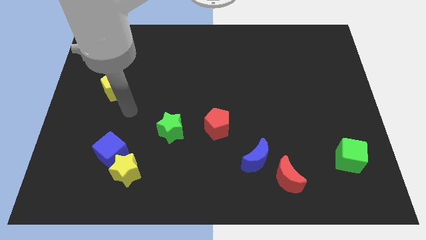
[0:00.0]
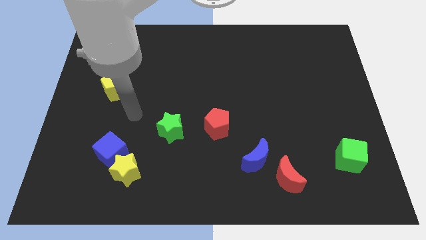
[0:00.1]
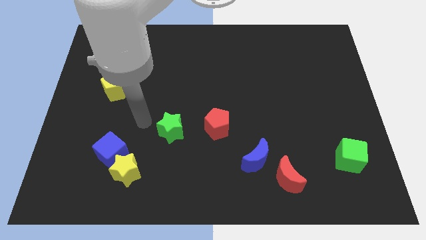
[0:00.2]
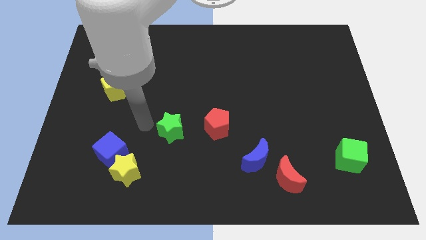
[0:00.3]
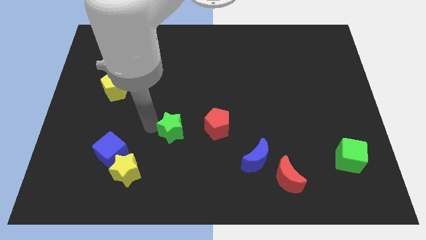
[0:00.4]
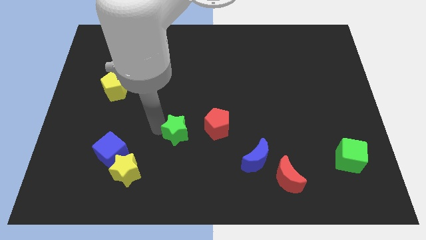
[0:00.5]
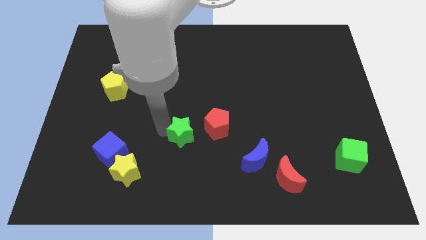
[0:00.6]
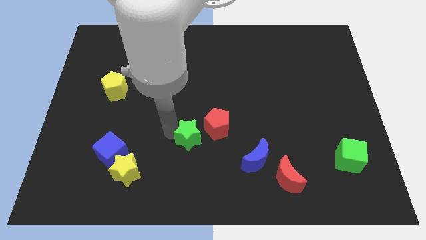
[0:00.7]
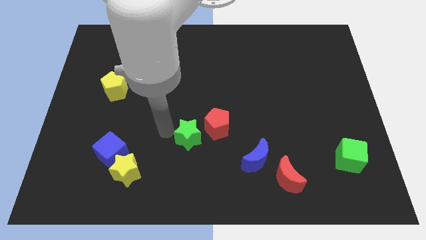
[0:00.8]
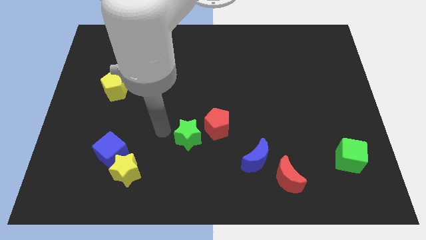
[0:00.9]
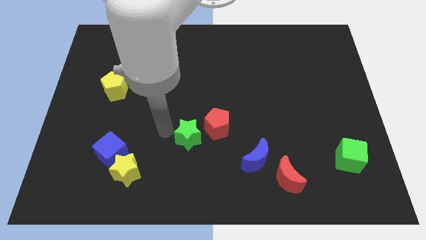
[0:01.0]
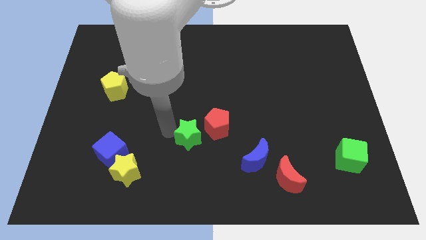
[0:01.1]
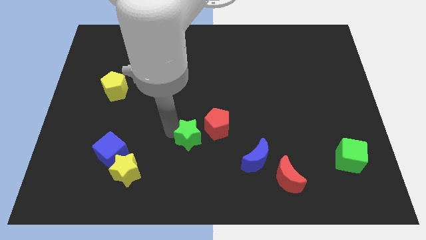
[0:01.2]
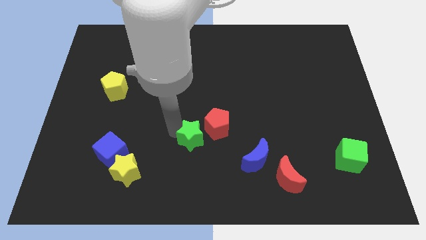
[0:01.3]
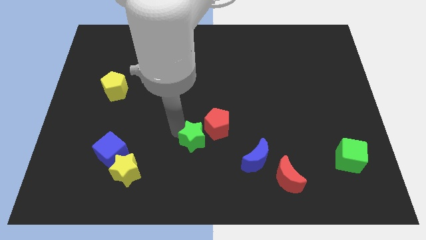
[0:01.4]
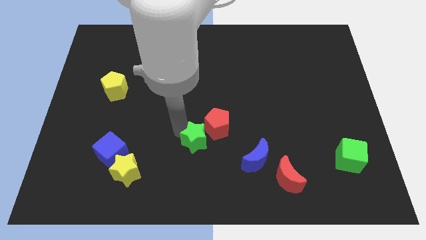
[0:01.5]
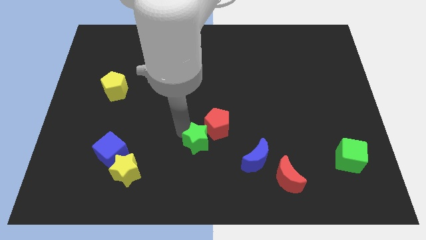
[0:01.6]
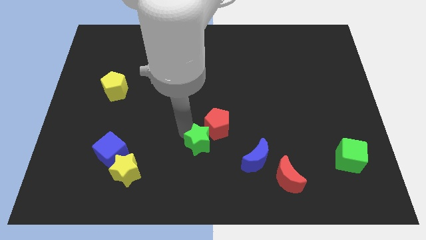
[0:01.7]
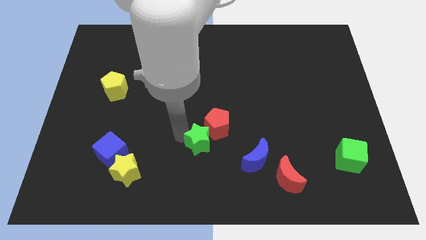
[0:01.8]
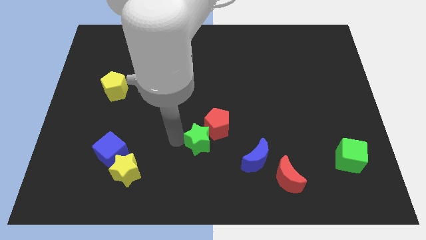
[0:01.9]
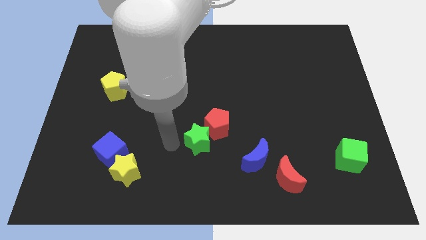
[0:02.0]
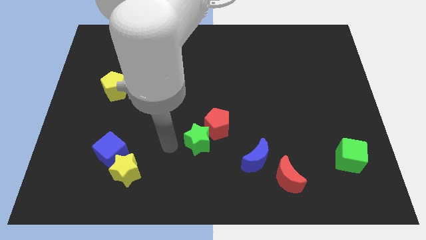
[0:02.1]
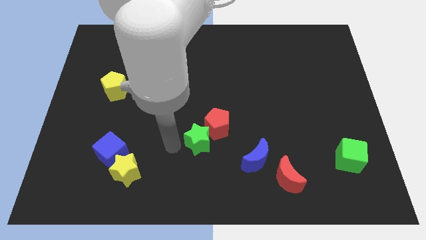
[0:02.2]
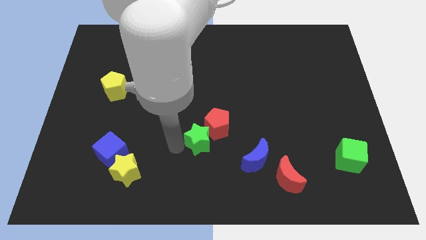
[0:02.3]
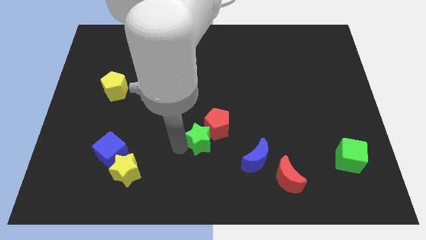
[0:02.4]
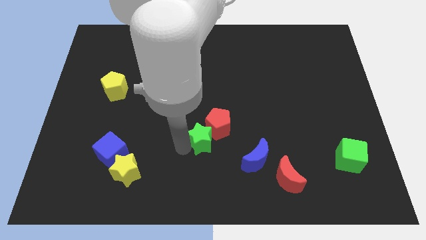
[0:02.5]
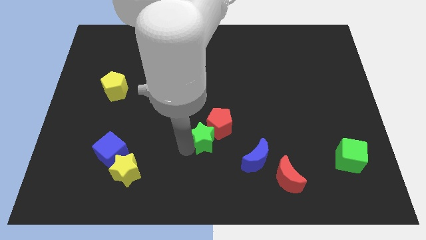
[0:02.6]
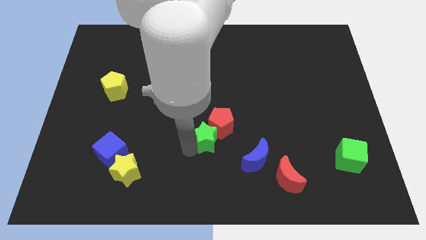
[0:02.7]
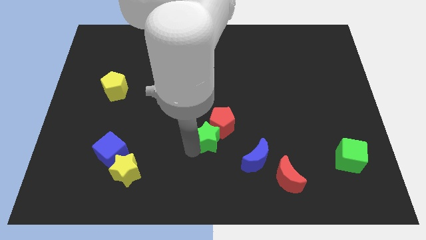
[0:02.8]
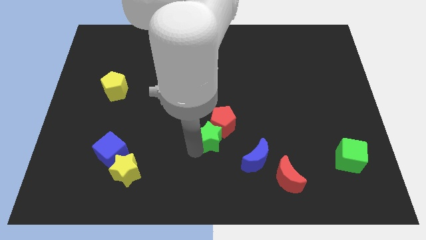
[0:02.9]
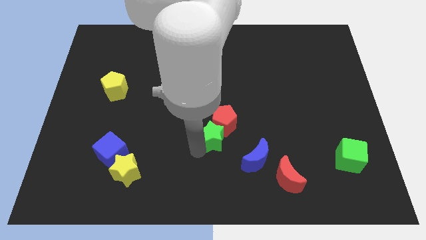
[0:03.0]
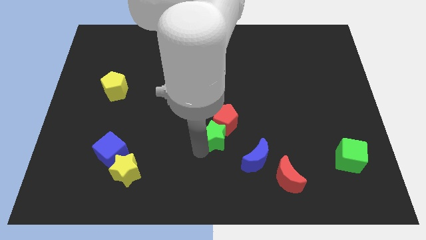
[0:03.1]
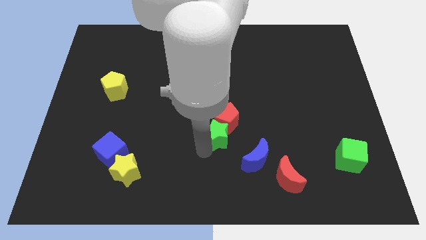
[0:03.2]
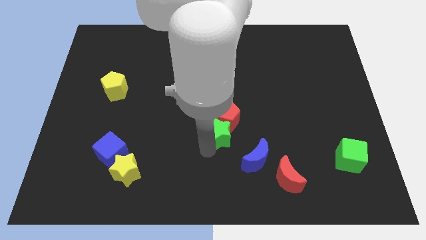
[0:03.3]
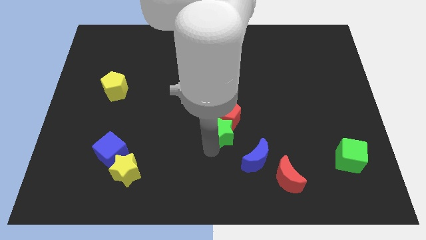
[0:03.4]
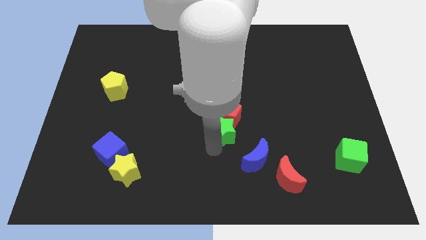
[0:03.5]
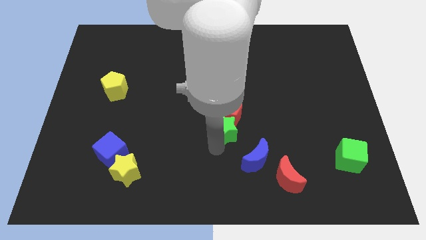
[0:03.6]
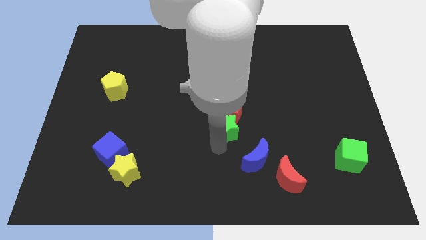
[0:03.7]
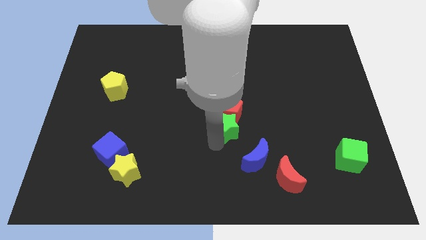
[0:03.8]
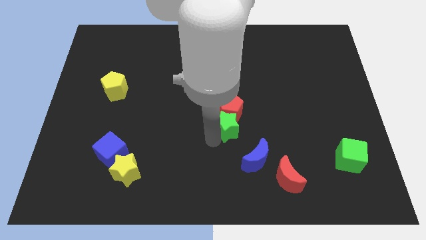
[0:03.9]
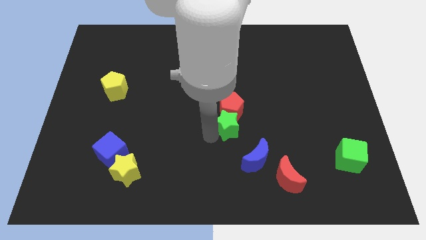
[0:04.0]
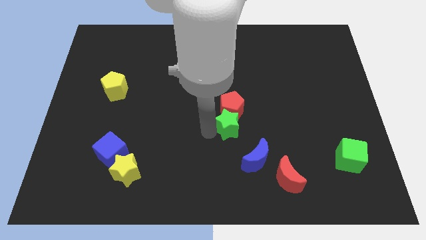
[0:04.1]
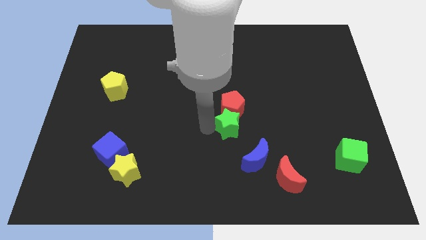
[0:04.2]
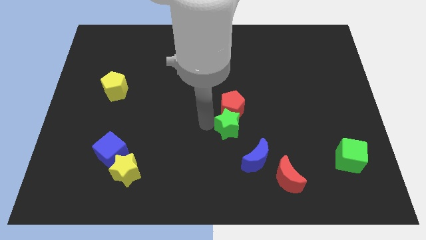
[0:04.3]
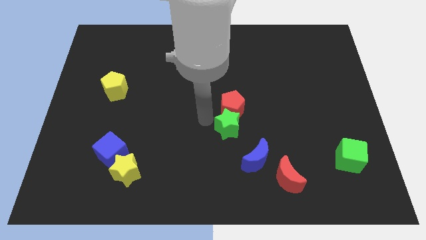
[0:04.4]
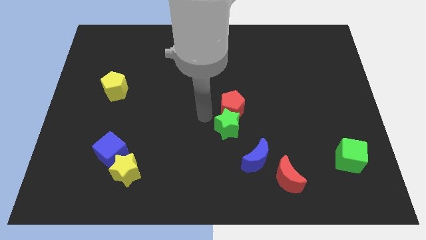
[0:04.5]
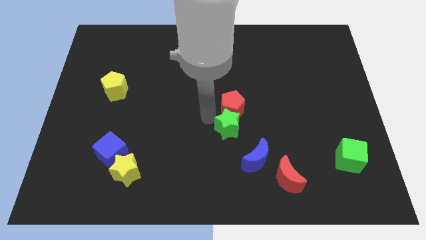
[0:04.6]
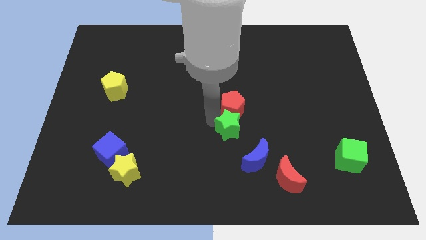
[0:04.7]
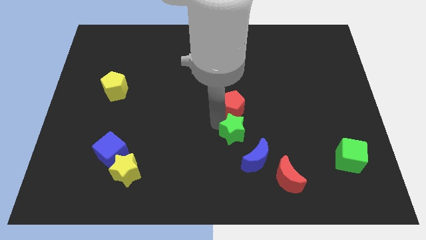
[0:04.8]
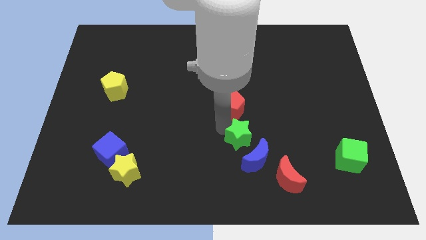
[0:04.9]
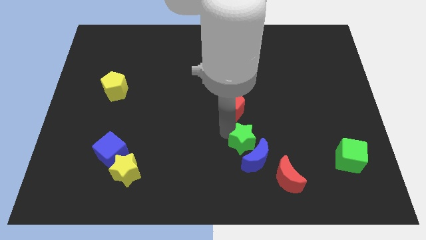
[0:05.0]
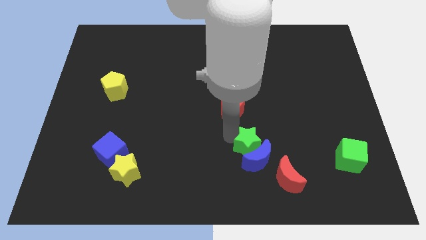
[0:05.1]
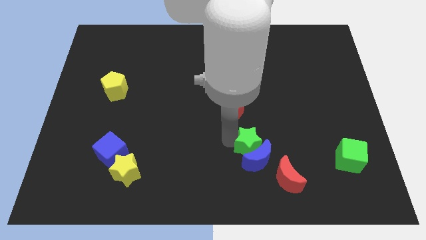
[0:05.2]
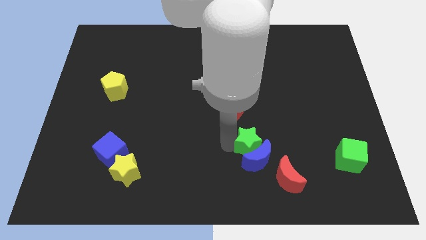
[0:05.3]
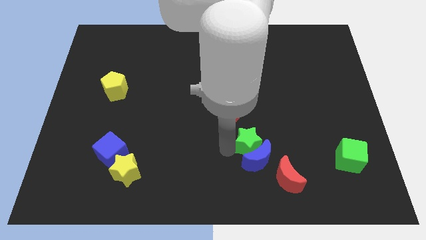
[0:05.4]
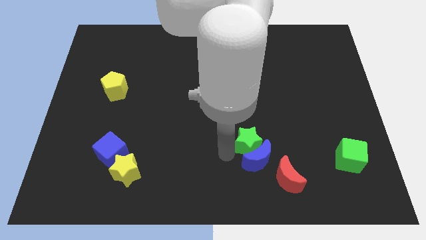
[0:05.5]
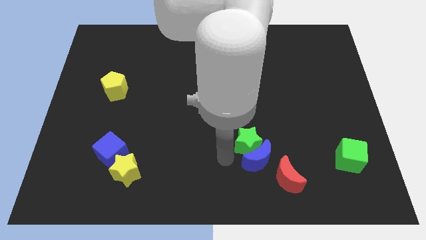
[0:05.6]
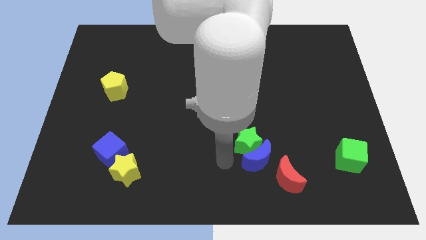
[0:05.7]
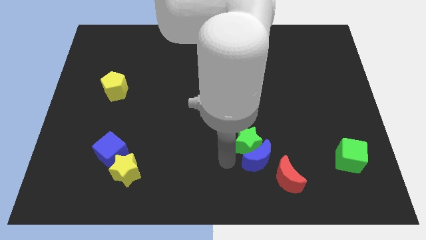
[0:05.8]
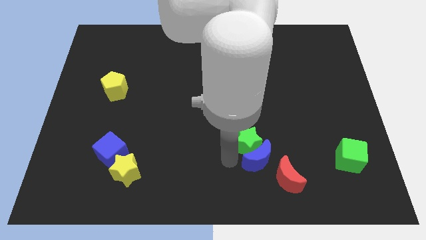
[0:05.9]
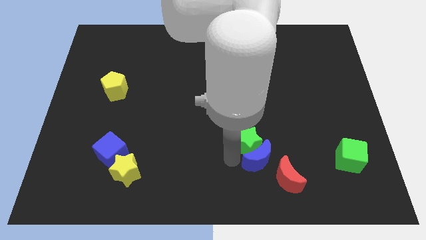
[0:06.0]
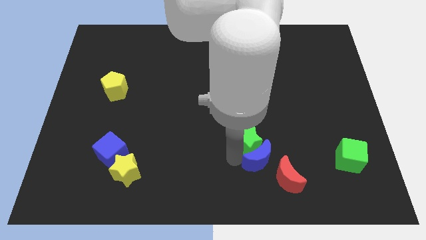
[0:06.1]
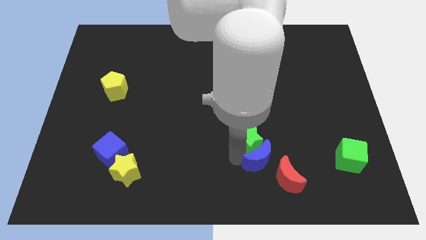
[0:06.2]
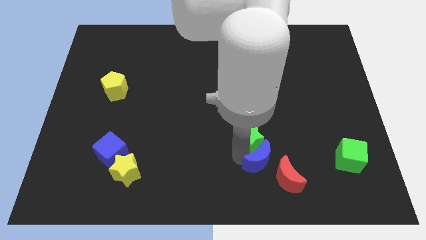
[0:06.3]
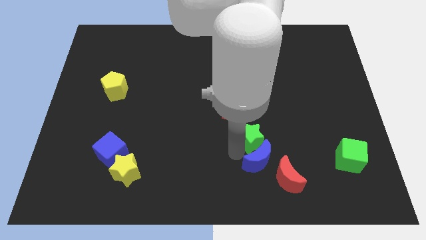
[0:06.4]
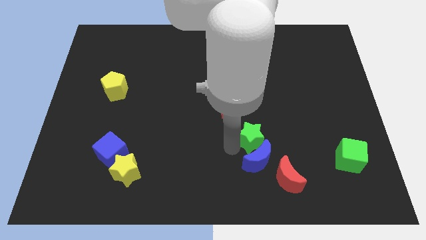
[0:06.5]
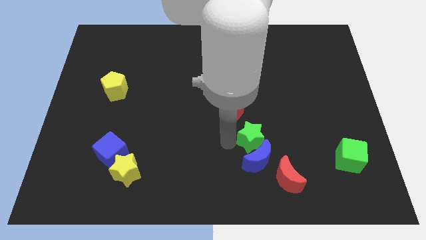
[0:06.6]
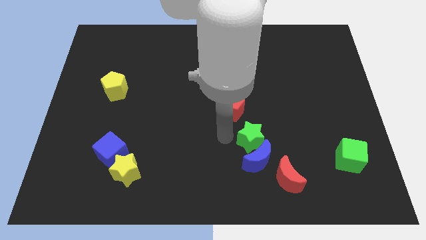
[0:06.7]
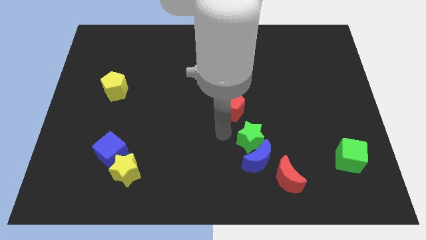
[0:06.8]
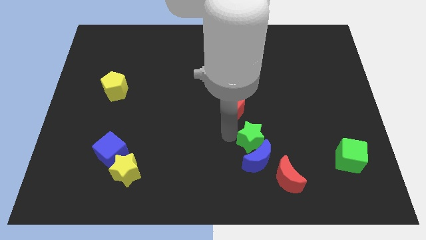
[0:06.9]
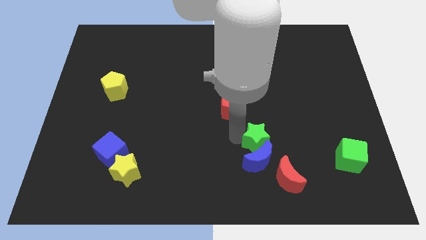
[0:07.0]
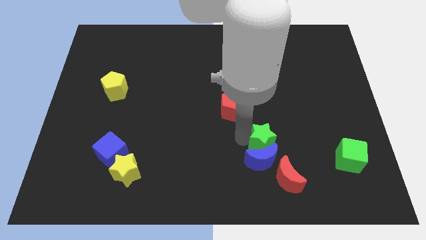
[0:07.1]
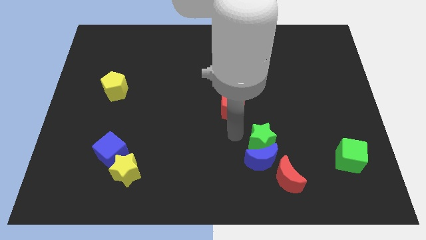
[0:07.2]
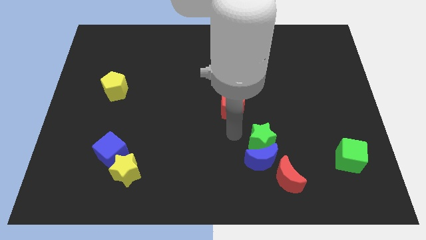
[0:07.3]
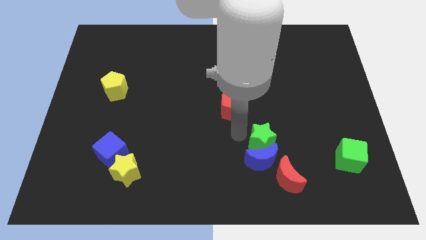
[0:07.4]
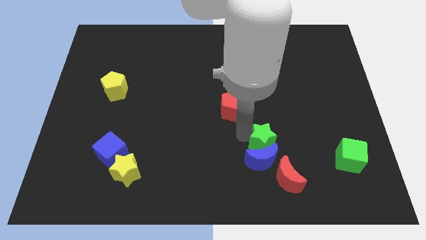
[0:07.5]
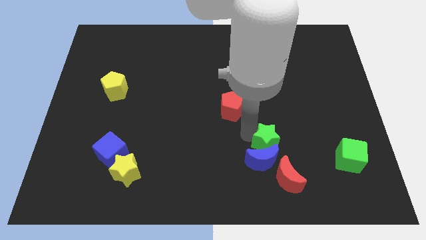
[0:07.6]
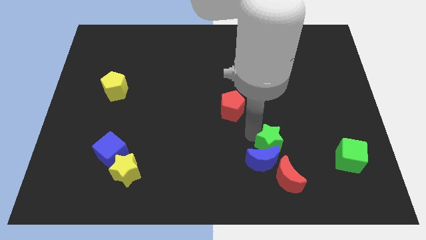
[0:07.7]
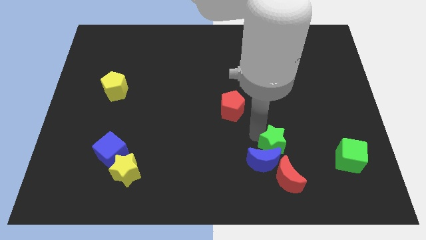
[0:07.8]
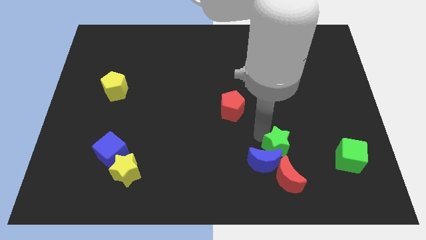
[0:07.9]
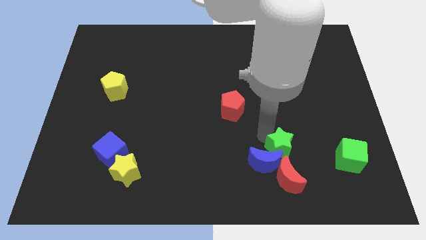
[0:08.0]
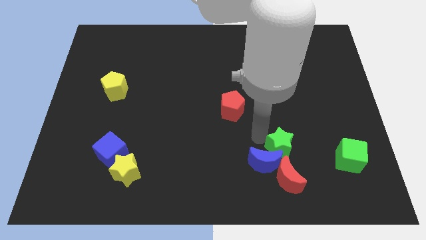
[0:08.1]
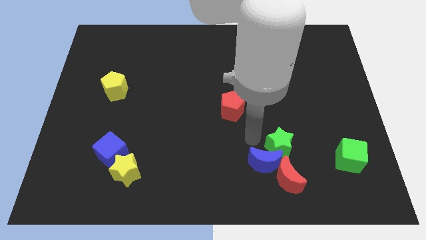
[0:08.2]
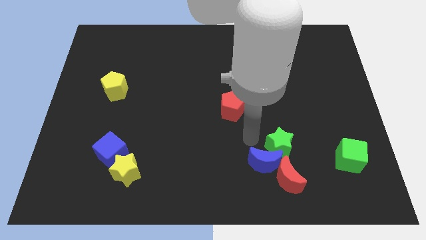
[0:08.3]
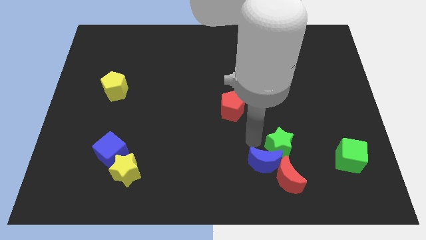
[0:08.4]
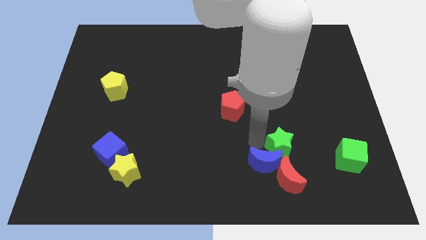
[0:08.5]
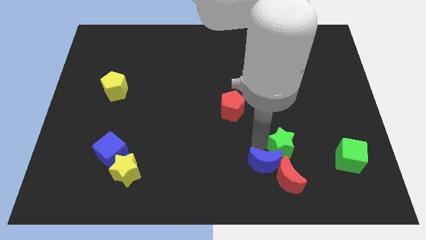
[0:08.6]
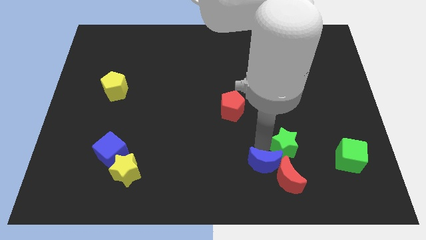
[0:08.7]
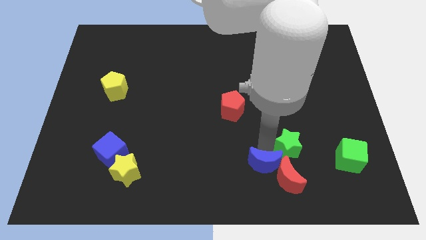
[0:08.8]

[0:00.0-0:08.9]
put the green star to the top right side of the red moon
